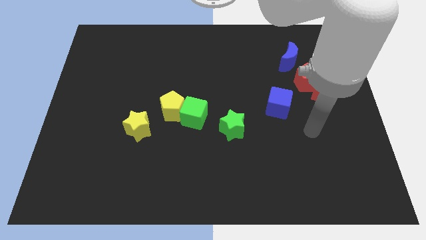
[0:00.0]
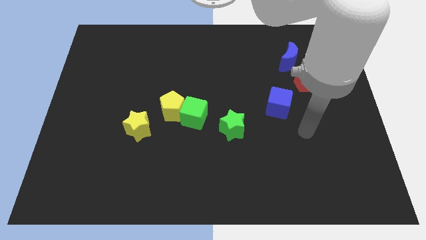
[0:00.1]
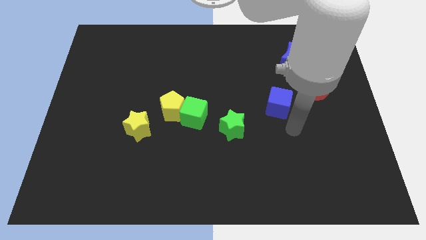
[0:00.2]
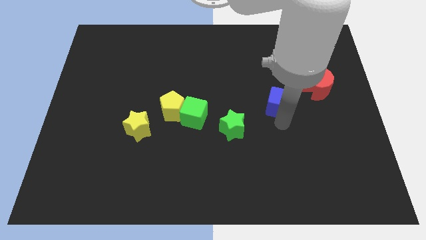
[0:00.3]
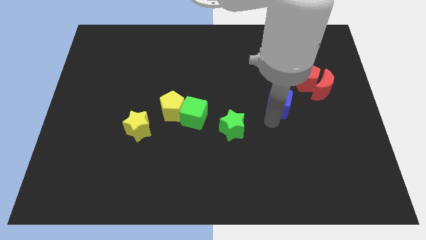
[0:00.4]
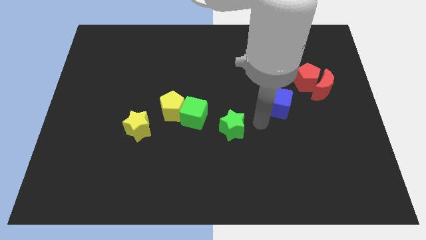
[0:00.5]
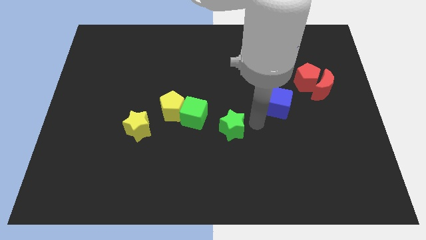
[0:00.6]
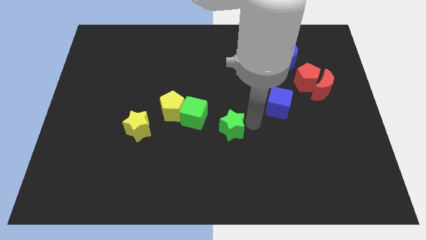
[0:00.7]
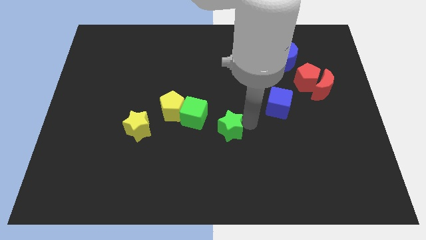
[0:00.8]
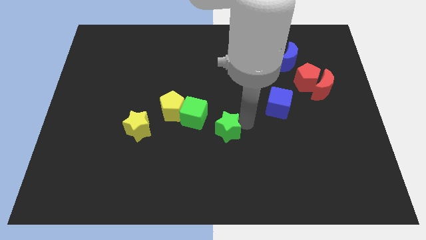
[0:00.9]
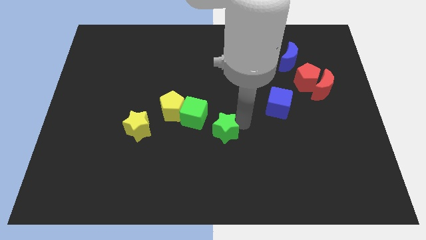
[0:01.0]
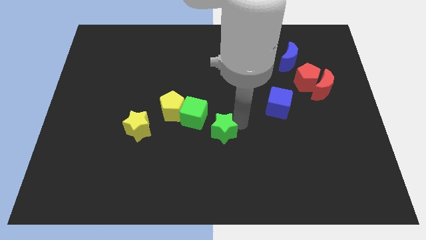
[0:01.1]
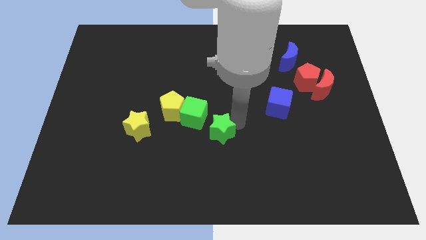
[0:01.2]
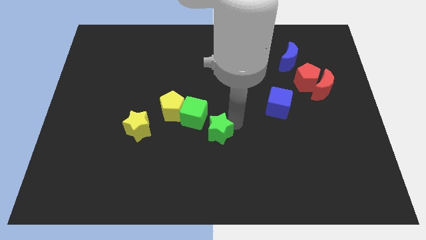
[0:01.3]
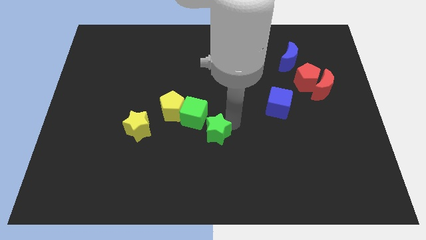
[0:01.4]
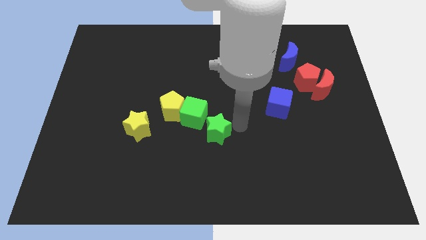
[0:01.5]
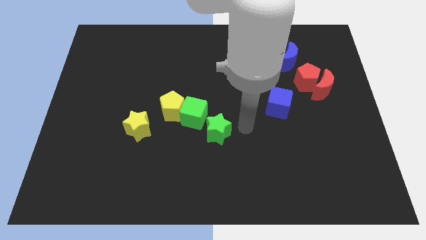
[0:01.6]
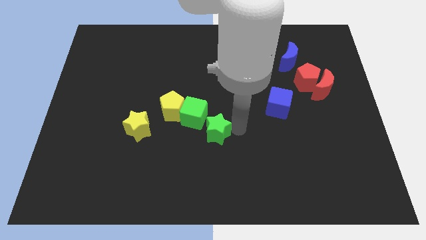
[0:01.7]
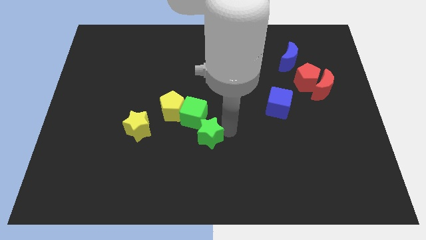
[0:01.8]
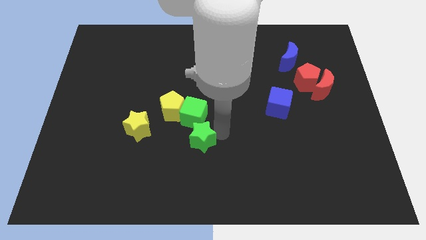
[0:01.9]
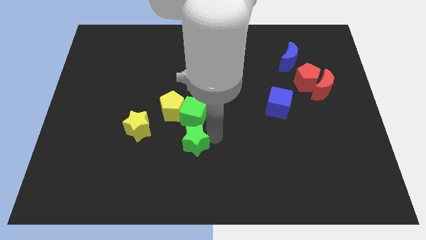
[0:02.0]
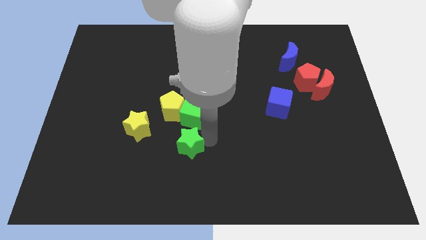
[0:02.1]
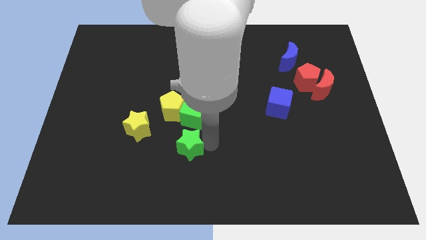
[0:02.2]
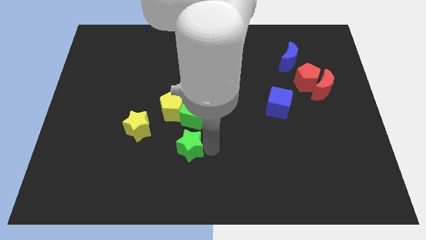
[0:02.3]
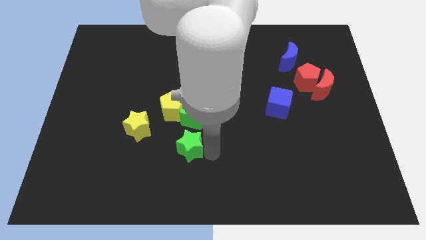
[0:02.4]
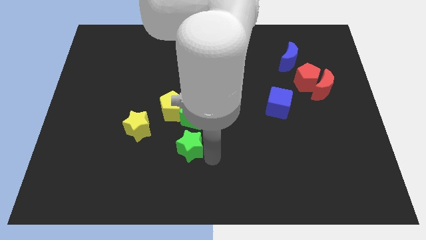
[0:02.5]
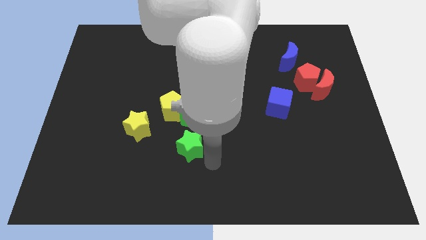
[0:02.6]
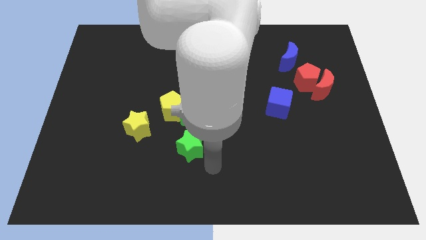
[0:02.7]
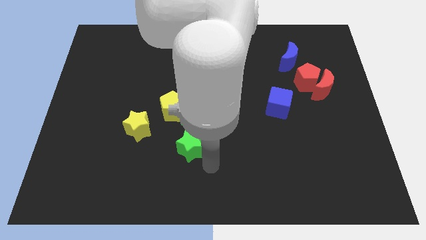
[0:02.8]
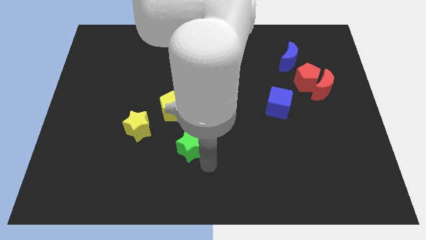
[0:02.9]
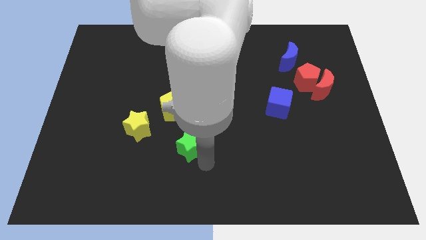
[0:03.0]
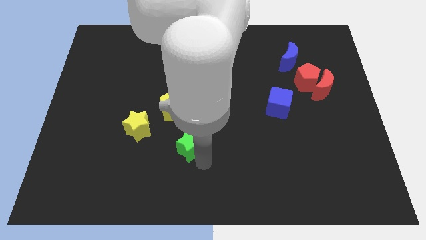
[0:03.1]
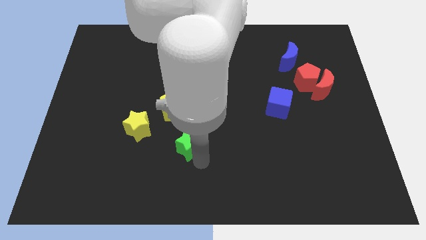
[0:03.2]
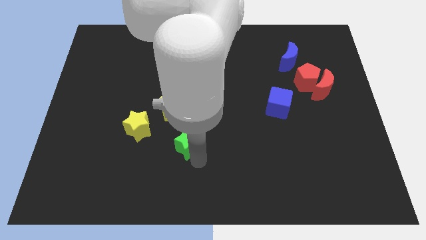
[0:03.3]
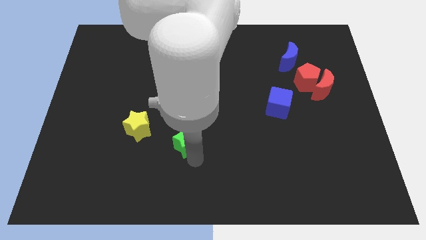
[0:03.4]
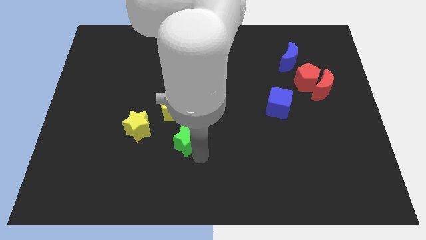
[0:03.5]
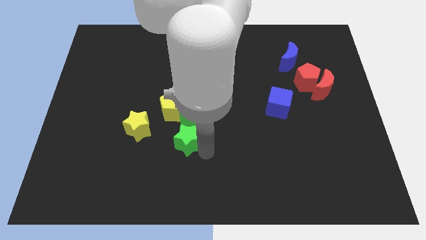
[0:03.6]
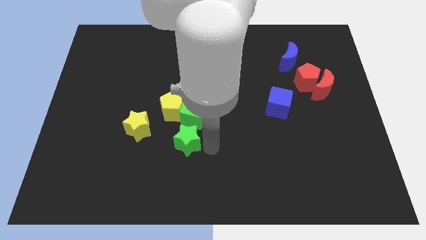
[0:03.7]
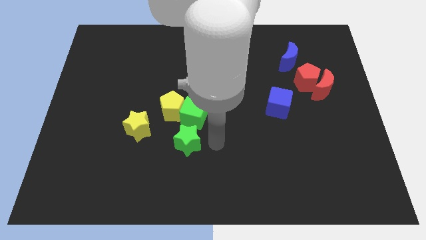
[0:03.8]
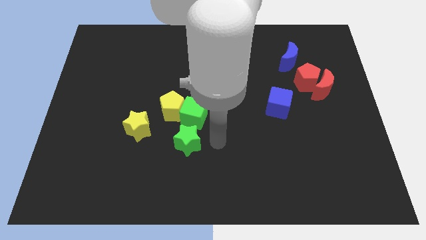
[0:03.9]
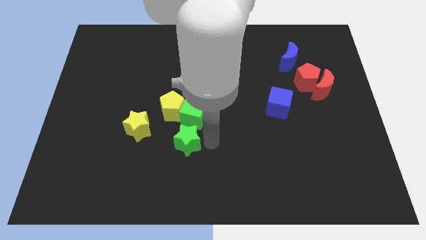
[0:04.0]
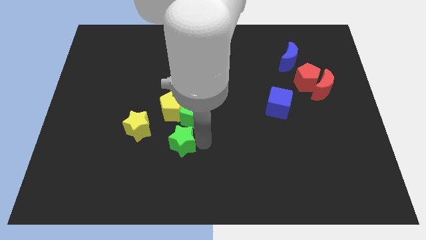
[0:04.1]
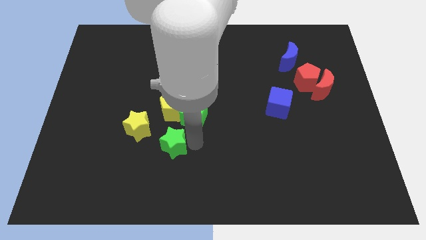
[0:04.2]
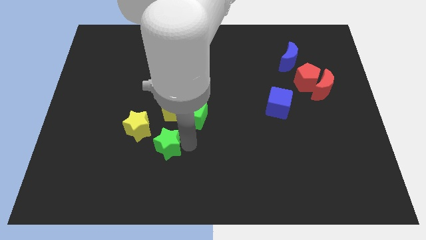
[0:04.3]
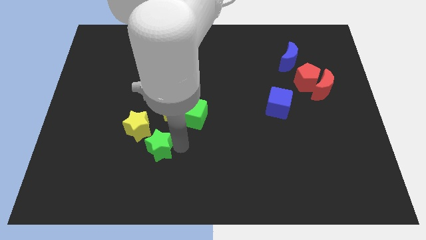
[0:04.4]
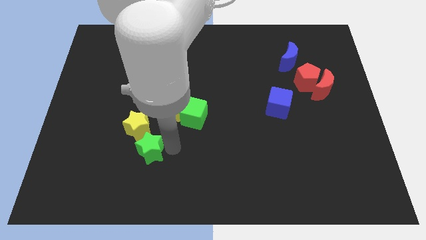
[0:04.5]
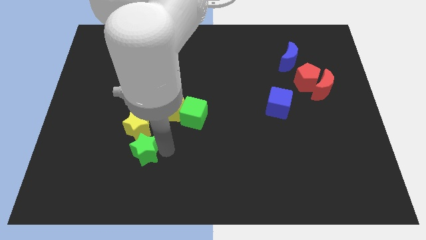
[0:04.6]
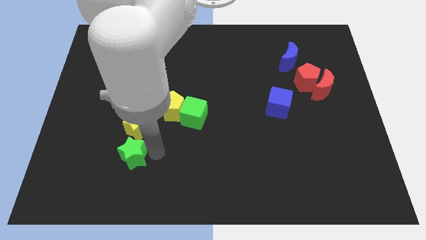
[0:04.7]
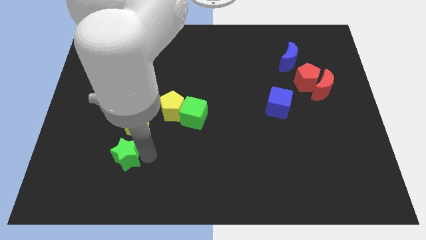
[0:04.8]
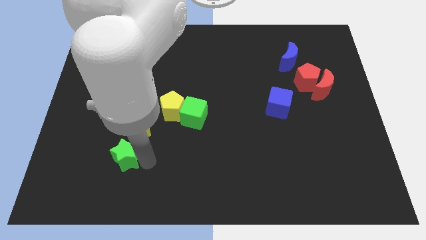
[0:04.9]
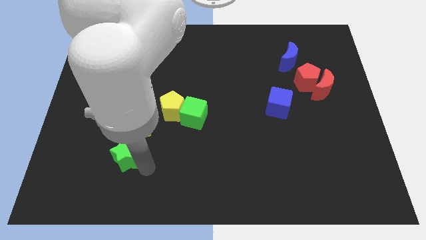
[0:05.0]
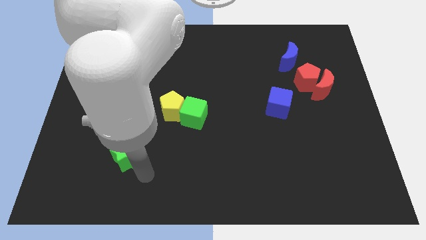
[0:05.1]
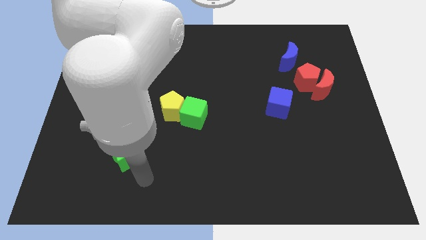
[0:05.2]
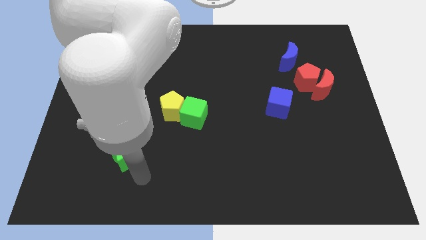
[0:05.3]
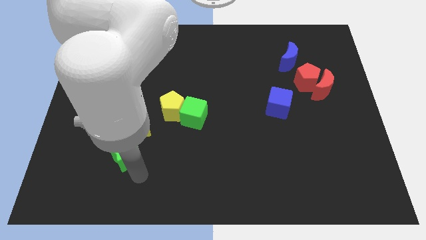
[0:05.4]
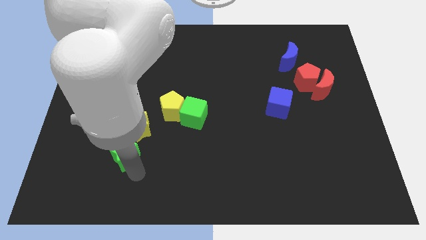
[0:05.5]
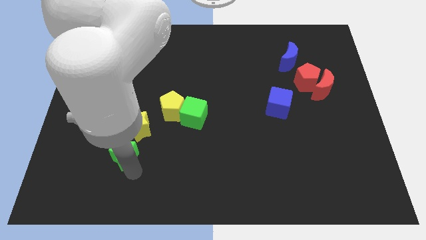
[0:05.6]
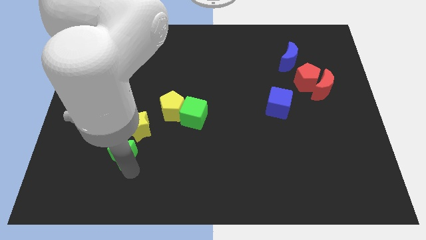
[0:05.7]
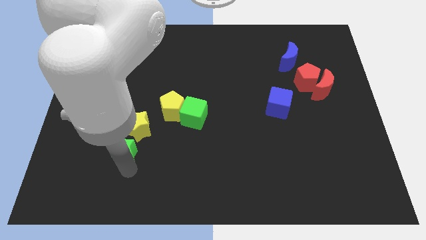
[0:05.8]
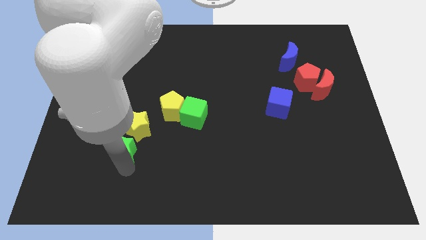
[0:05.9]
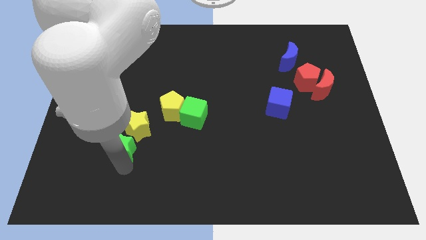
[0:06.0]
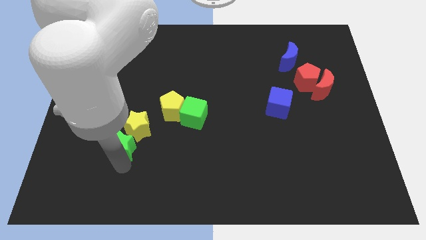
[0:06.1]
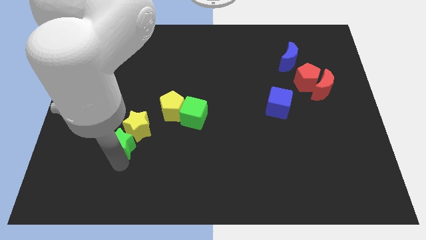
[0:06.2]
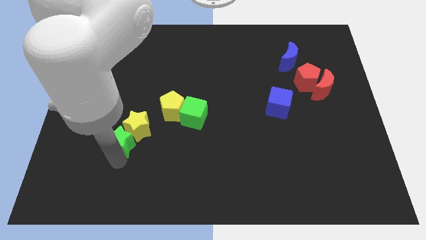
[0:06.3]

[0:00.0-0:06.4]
slide the green star left of the yellow star

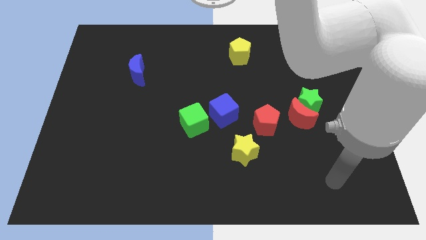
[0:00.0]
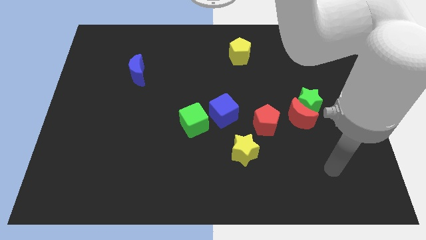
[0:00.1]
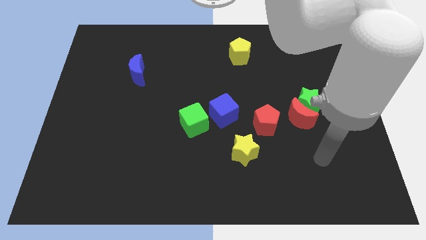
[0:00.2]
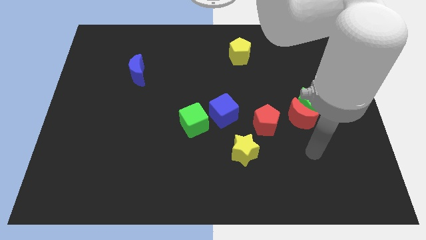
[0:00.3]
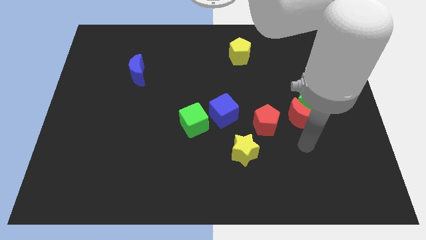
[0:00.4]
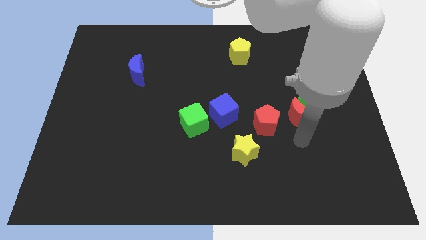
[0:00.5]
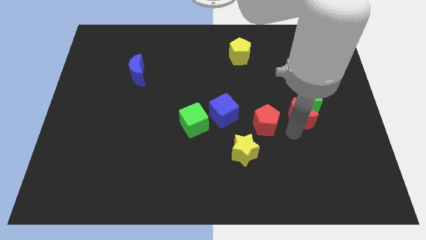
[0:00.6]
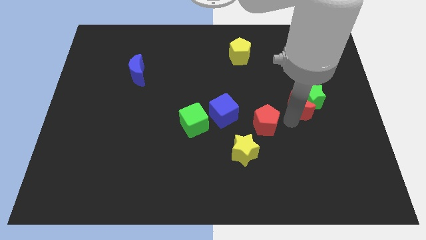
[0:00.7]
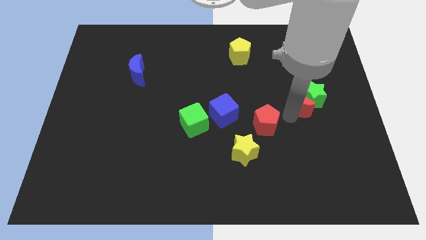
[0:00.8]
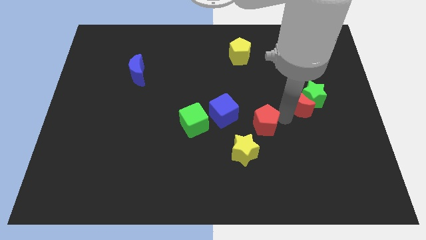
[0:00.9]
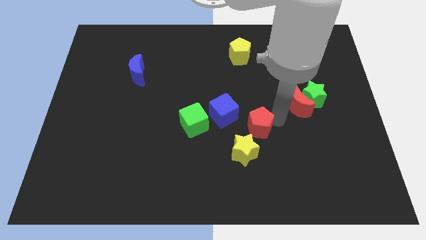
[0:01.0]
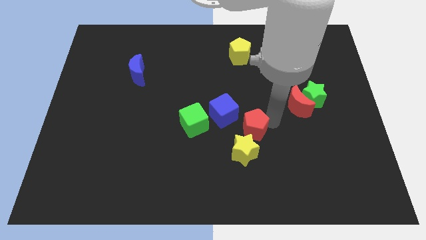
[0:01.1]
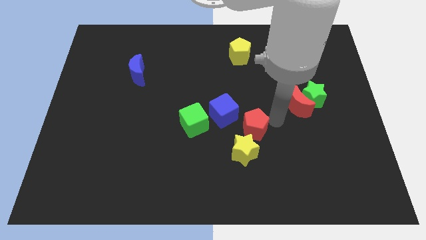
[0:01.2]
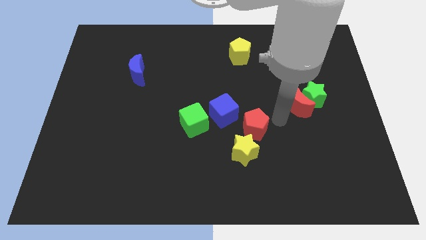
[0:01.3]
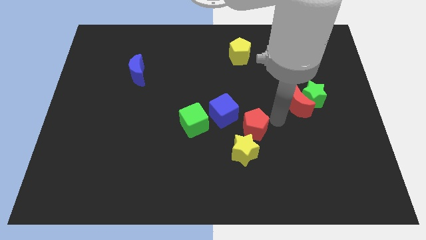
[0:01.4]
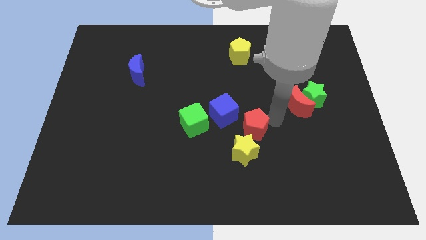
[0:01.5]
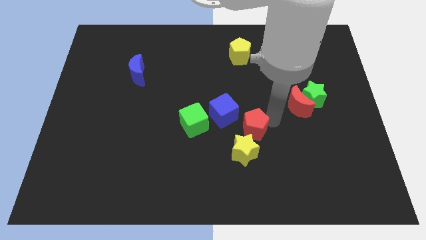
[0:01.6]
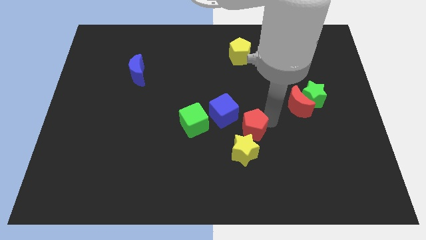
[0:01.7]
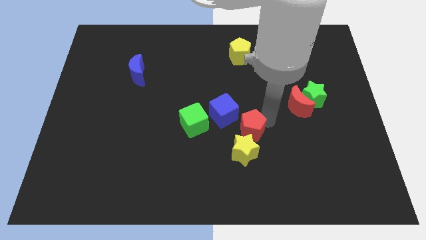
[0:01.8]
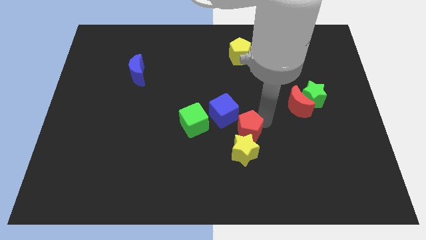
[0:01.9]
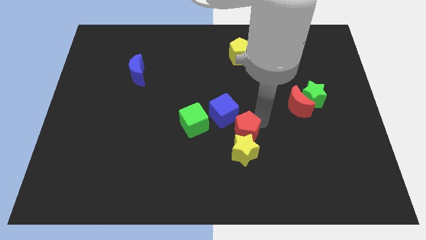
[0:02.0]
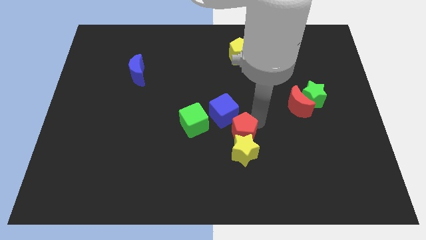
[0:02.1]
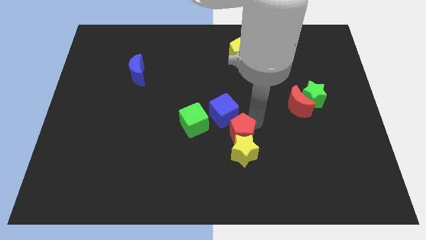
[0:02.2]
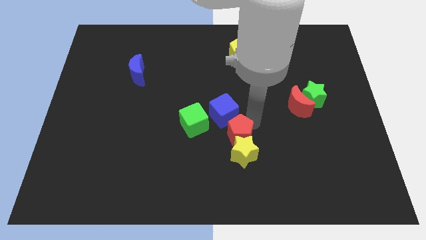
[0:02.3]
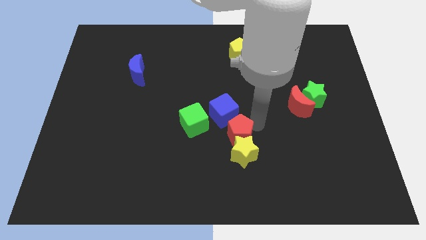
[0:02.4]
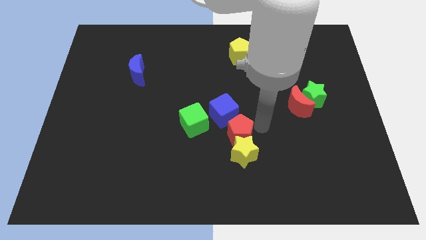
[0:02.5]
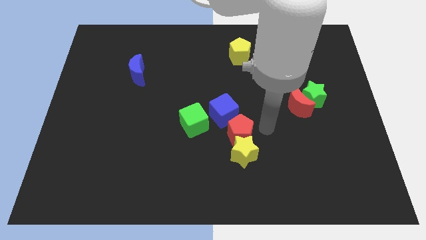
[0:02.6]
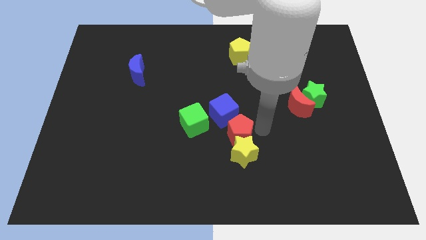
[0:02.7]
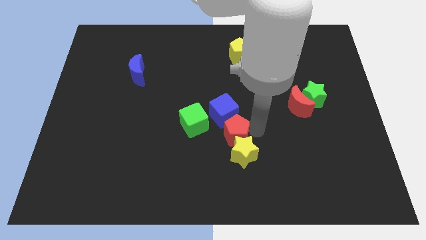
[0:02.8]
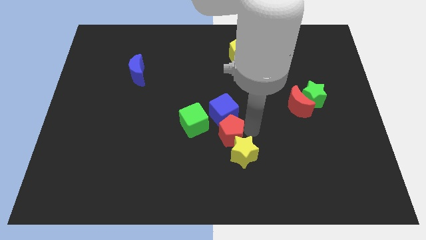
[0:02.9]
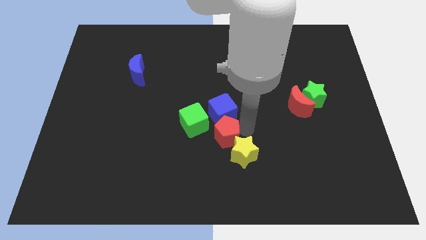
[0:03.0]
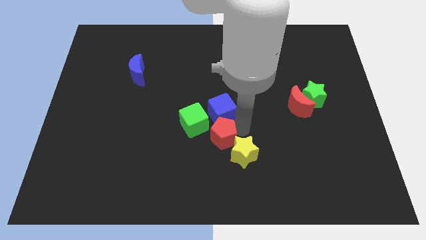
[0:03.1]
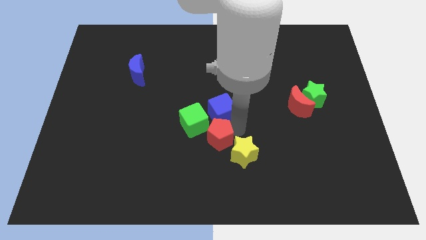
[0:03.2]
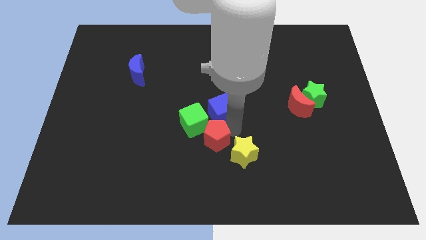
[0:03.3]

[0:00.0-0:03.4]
put the red pentagon below the green cube
